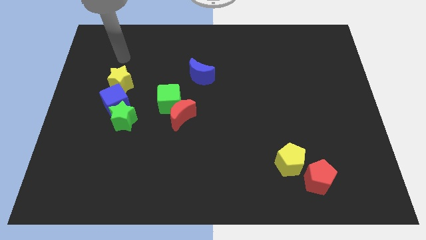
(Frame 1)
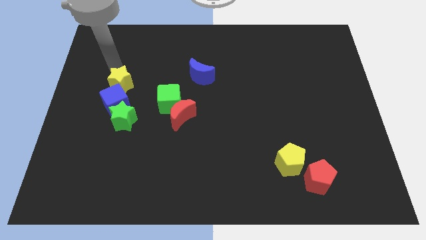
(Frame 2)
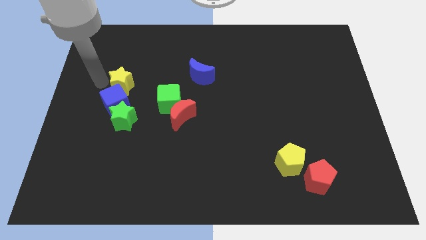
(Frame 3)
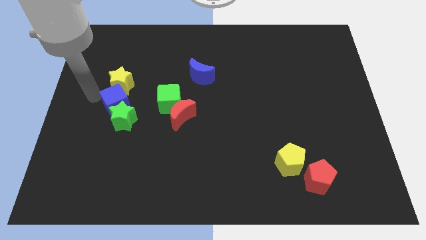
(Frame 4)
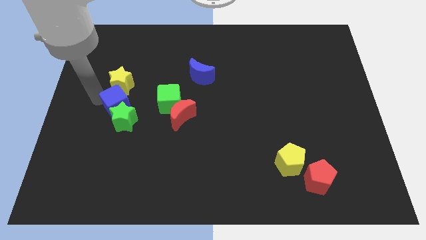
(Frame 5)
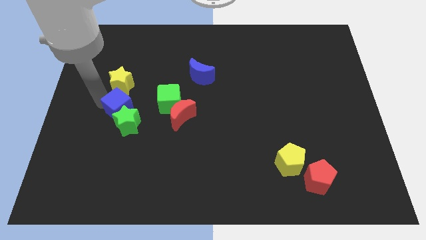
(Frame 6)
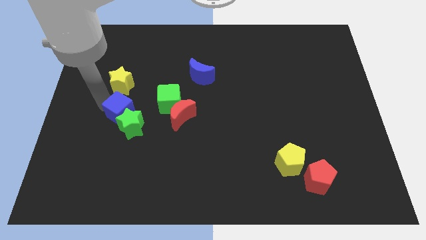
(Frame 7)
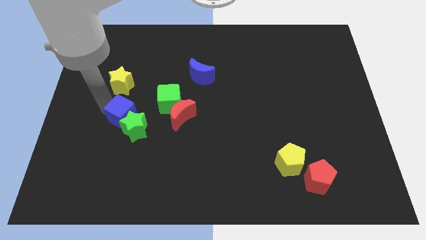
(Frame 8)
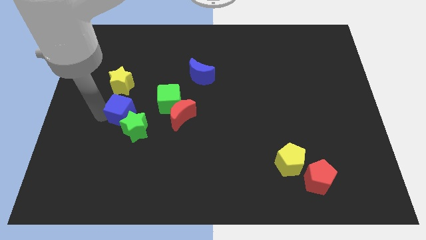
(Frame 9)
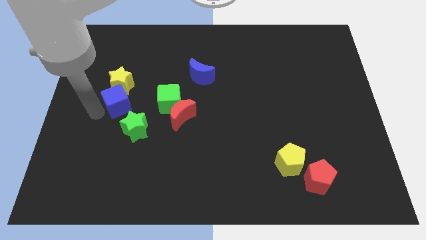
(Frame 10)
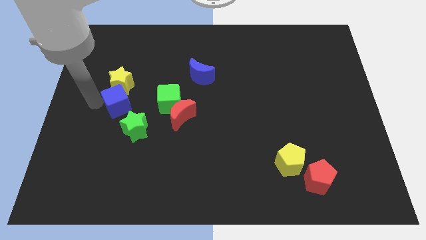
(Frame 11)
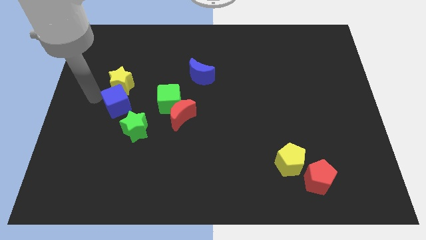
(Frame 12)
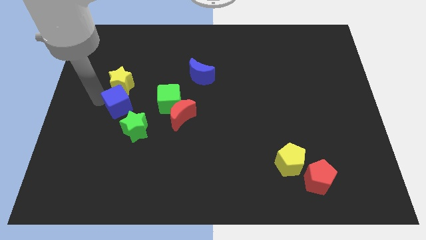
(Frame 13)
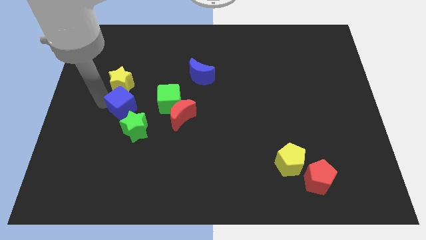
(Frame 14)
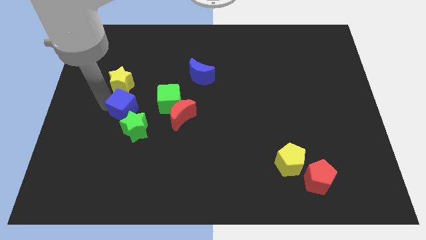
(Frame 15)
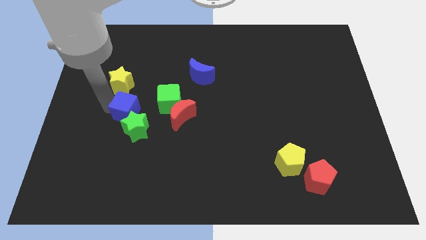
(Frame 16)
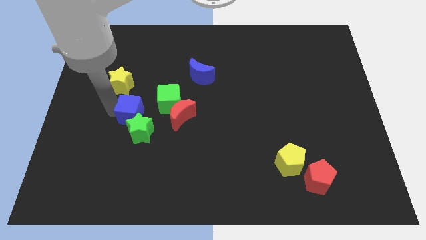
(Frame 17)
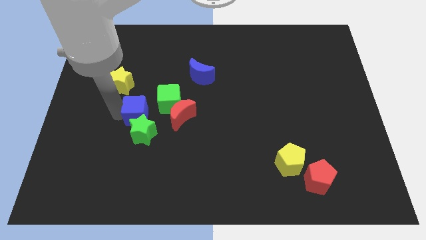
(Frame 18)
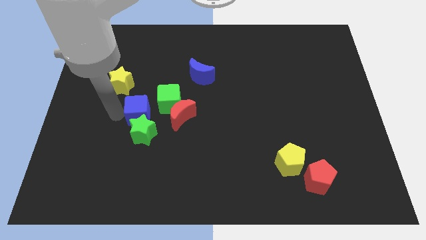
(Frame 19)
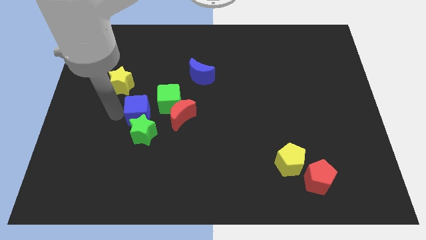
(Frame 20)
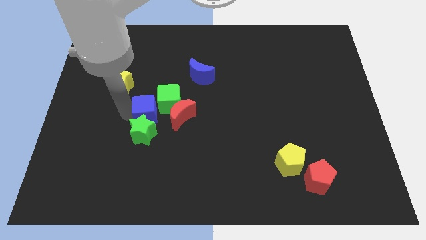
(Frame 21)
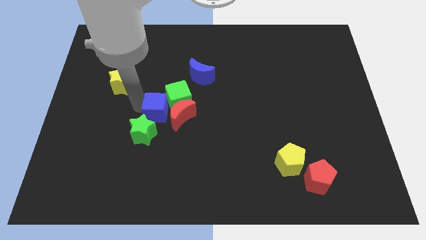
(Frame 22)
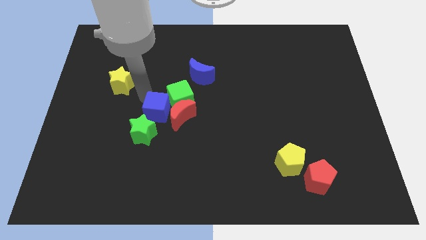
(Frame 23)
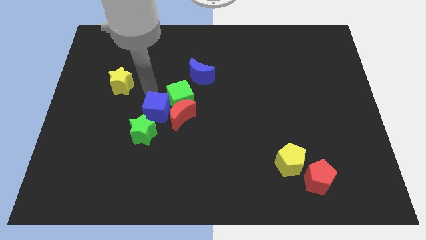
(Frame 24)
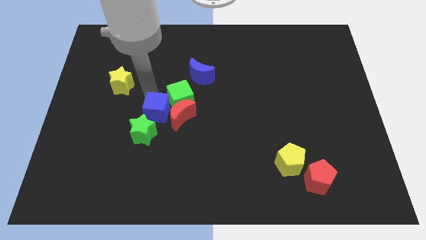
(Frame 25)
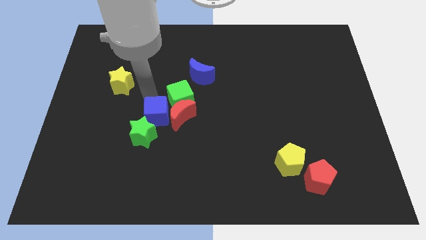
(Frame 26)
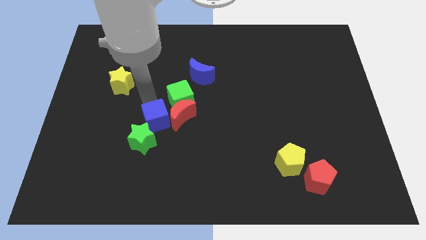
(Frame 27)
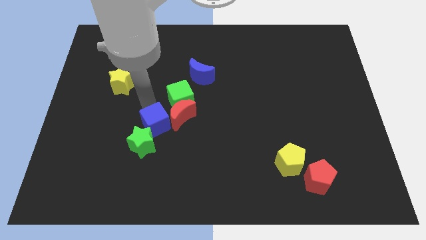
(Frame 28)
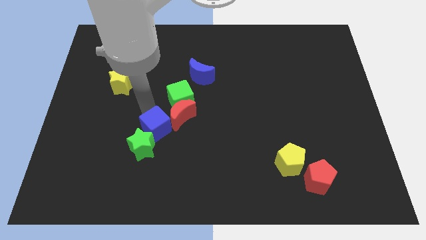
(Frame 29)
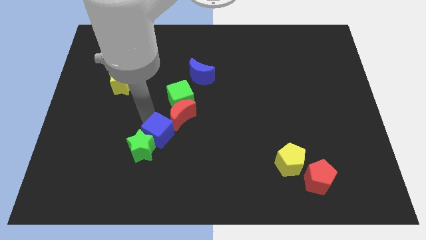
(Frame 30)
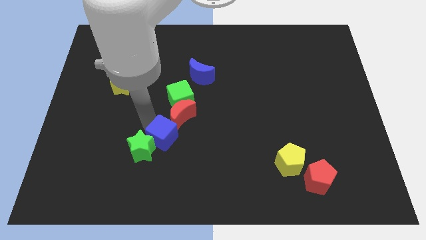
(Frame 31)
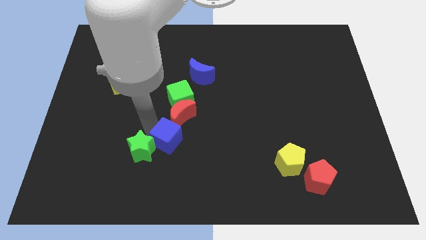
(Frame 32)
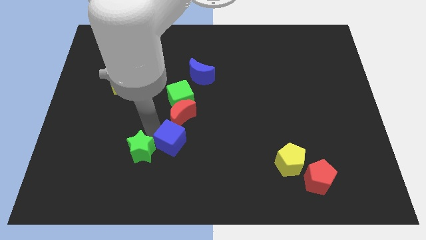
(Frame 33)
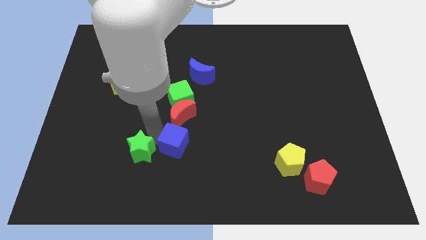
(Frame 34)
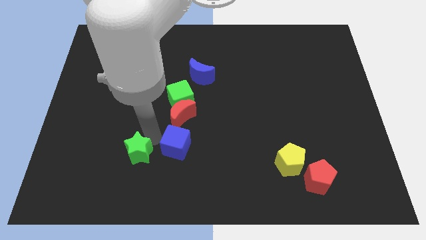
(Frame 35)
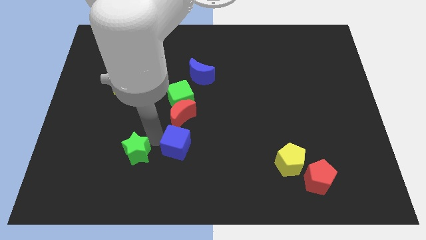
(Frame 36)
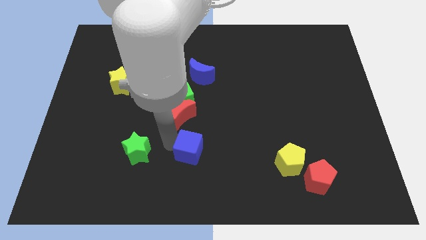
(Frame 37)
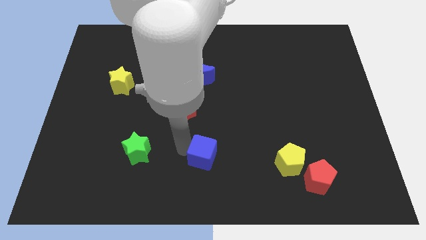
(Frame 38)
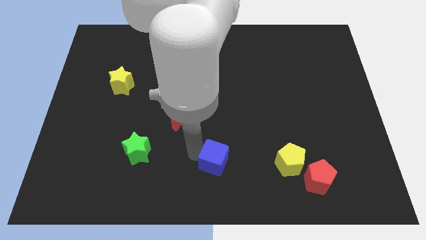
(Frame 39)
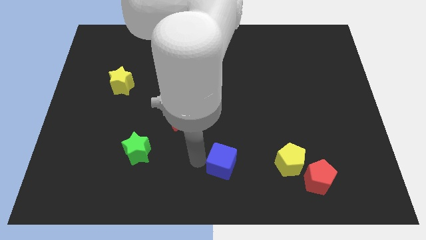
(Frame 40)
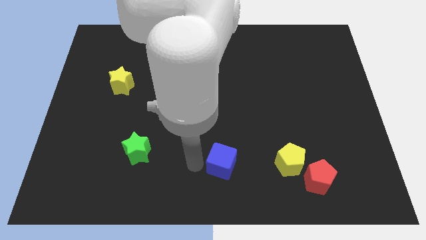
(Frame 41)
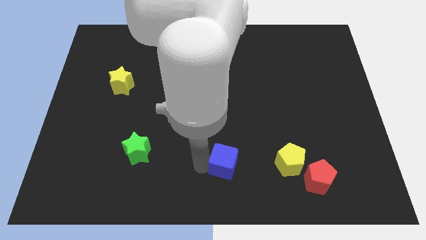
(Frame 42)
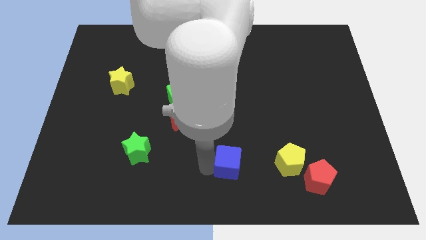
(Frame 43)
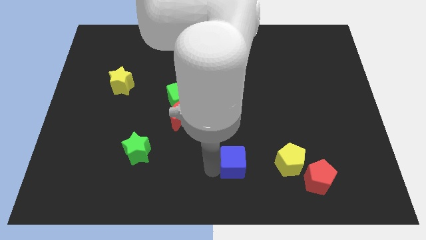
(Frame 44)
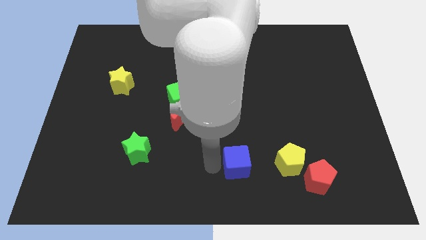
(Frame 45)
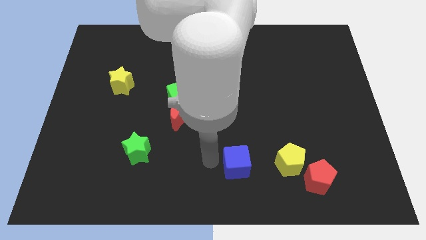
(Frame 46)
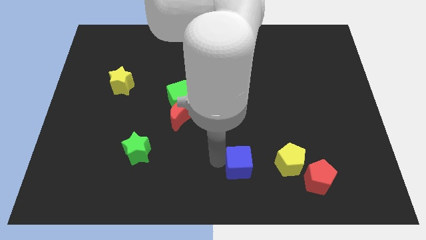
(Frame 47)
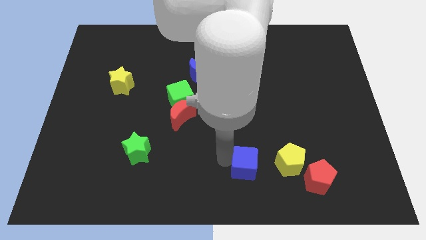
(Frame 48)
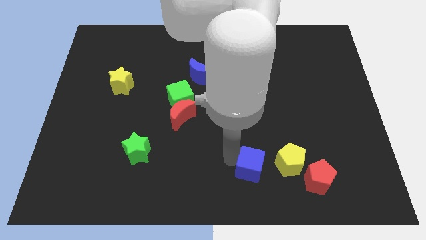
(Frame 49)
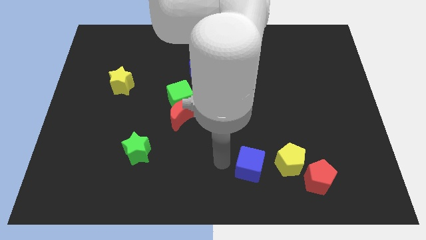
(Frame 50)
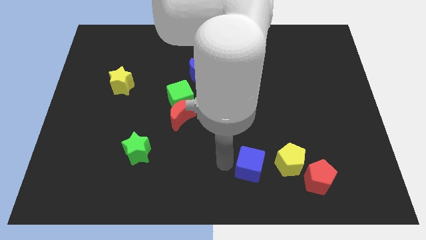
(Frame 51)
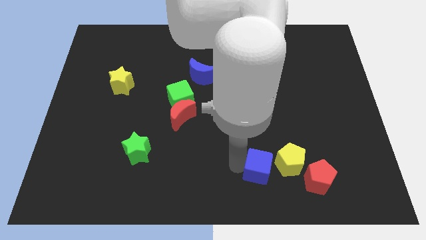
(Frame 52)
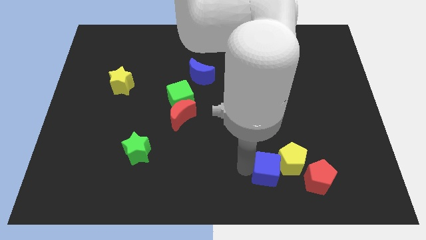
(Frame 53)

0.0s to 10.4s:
slide the blue cube next to the yellow pentagon

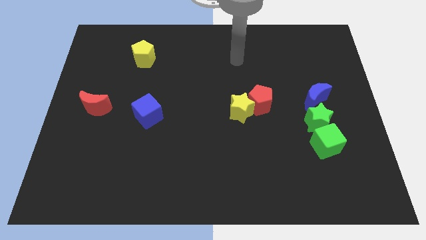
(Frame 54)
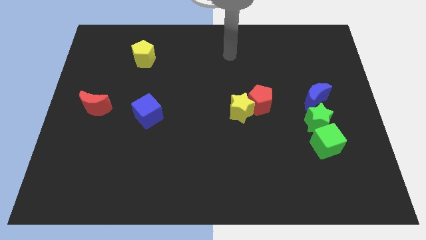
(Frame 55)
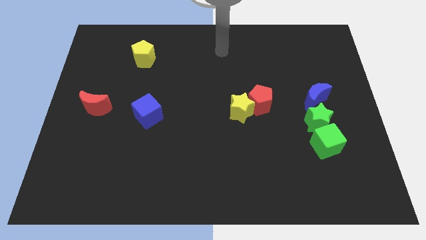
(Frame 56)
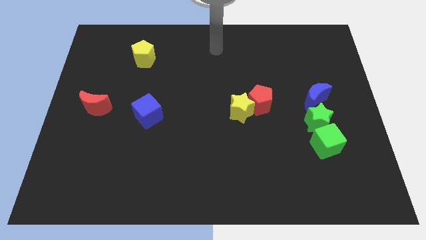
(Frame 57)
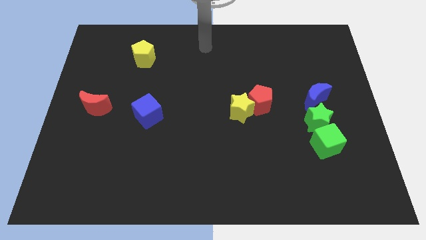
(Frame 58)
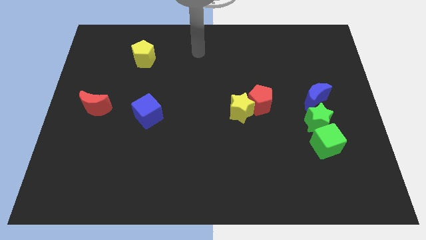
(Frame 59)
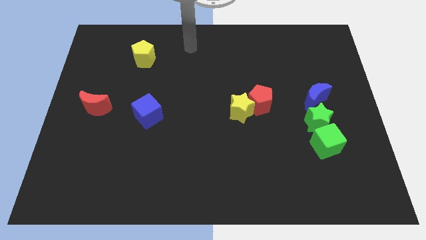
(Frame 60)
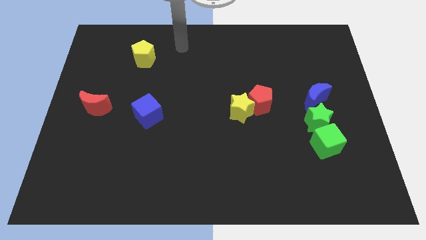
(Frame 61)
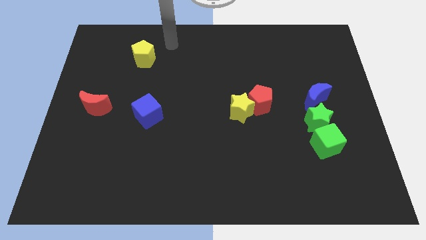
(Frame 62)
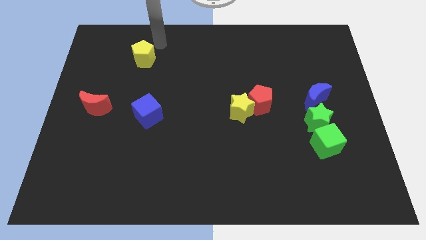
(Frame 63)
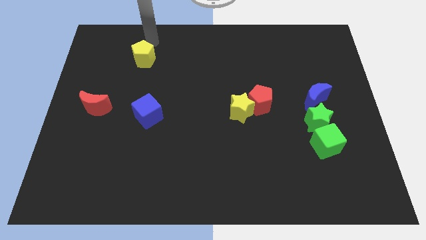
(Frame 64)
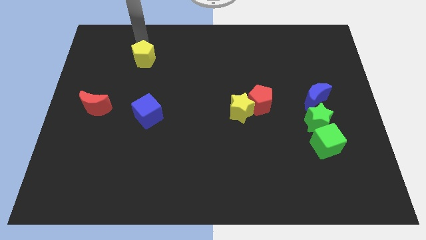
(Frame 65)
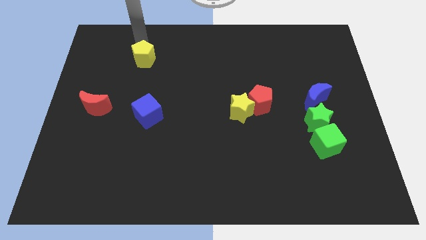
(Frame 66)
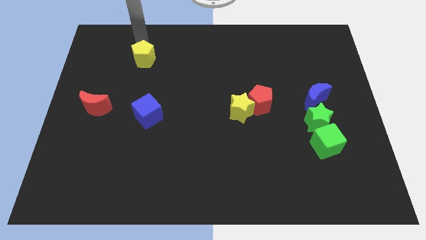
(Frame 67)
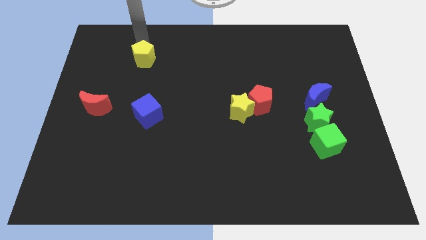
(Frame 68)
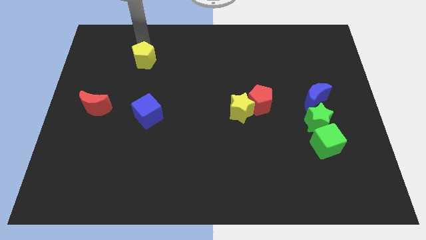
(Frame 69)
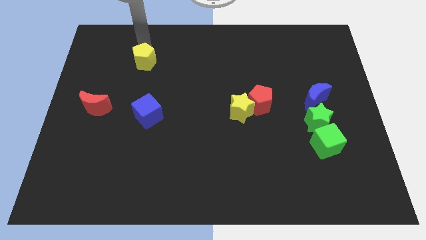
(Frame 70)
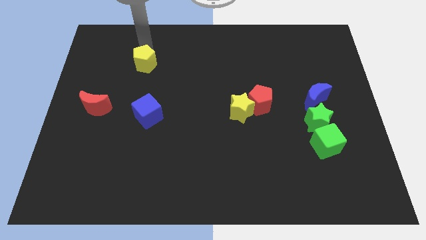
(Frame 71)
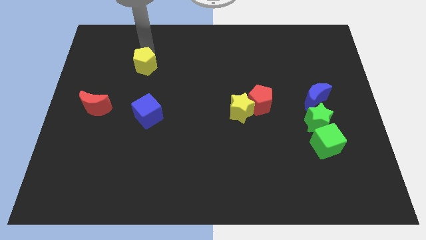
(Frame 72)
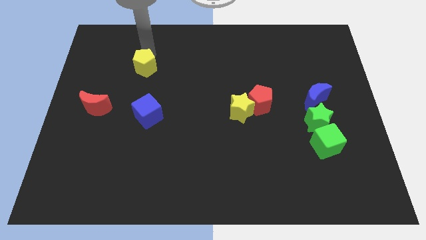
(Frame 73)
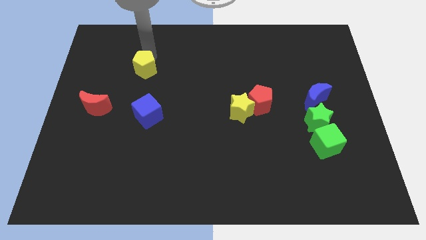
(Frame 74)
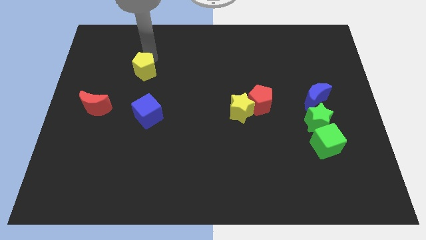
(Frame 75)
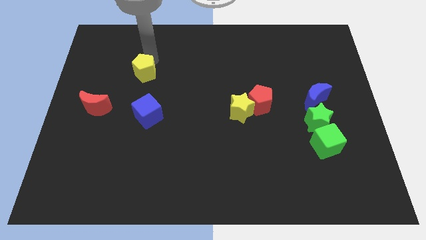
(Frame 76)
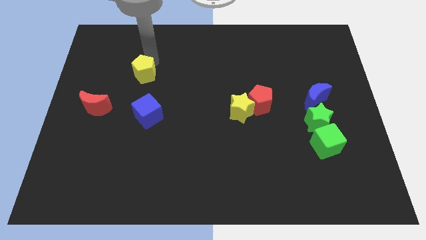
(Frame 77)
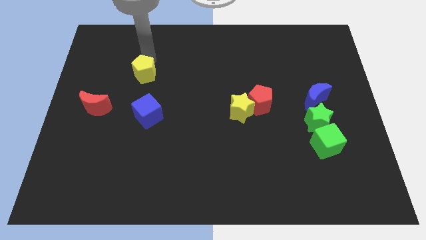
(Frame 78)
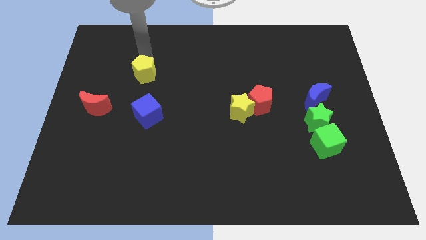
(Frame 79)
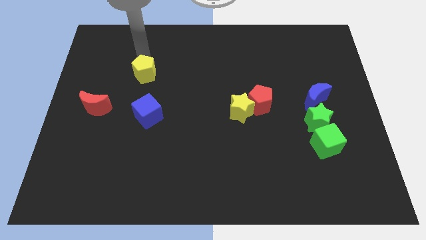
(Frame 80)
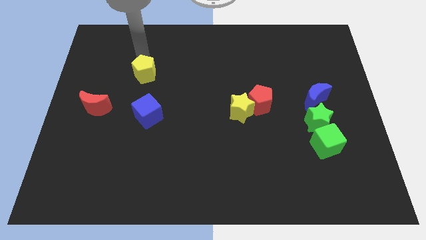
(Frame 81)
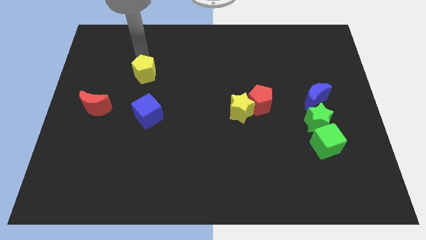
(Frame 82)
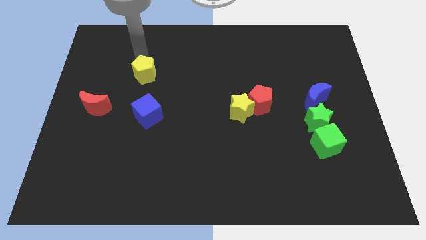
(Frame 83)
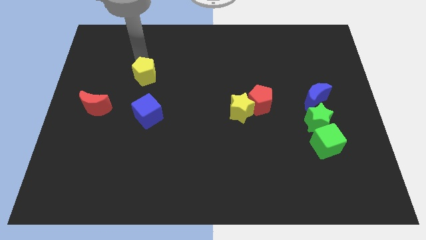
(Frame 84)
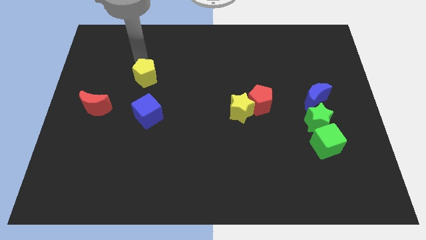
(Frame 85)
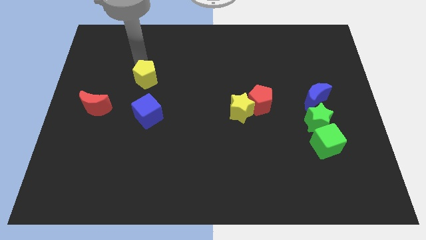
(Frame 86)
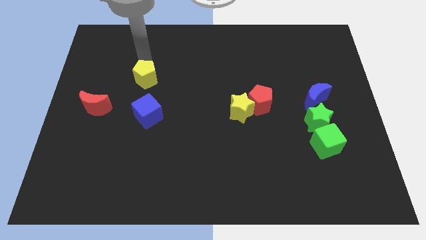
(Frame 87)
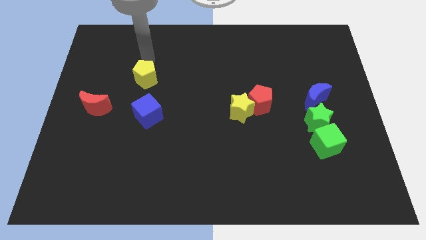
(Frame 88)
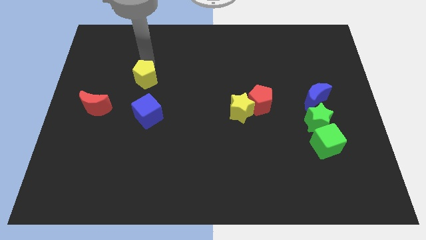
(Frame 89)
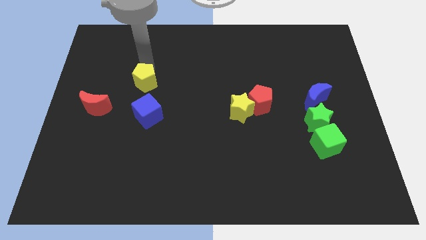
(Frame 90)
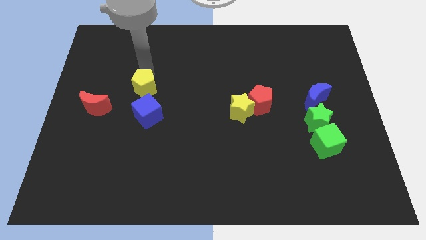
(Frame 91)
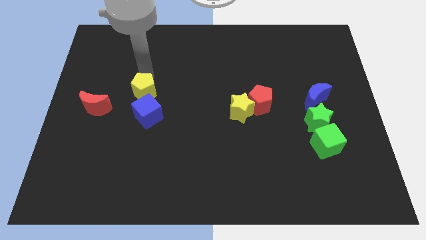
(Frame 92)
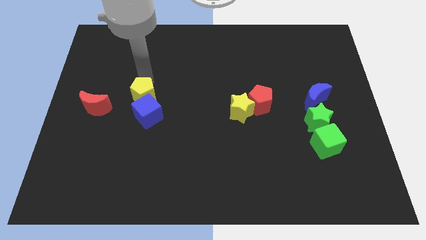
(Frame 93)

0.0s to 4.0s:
push the yellow pentagon to the blue cube
